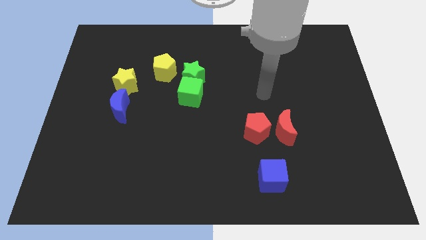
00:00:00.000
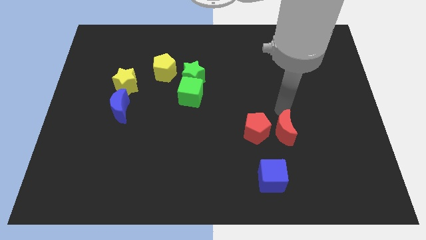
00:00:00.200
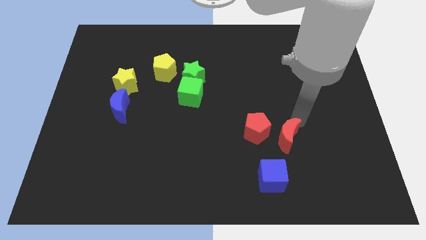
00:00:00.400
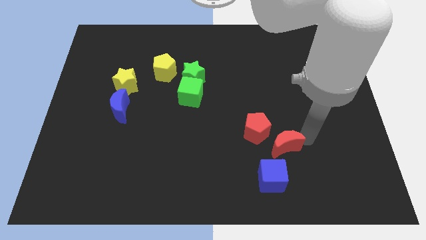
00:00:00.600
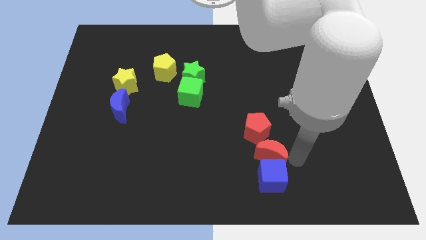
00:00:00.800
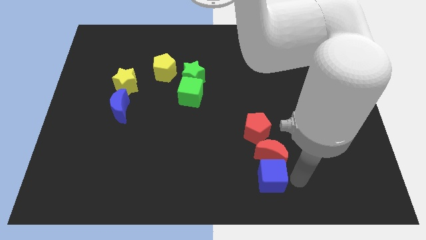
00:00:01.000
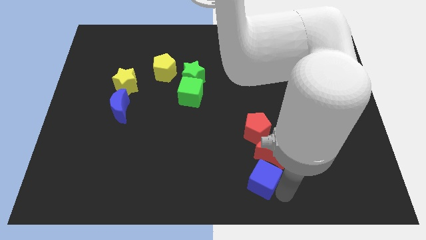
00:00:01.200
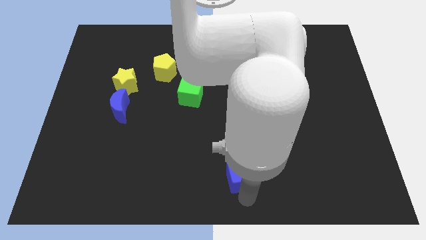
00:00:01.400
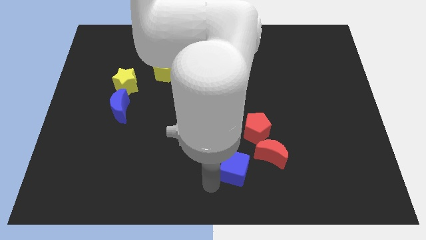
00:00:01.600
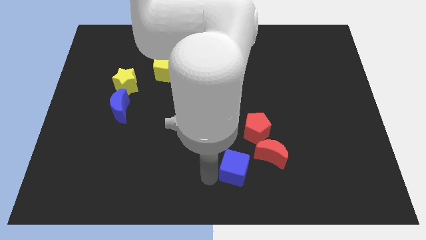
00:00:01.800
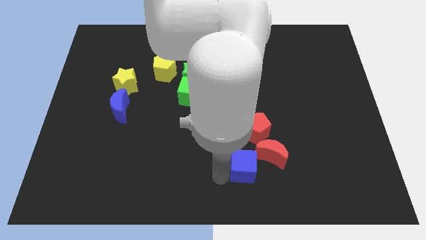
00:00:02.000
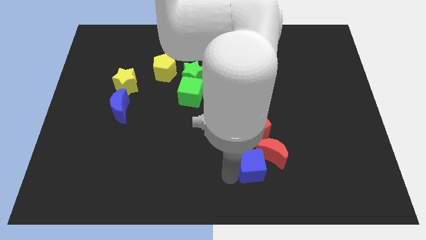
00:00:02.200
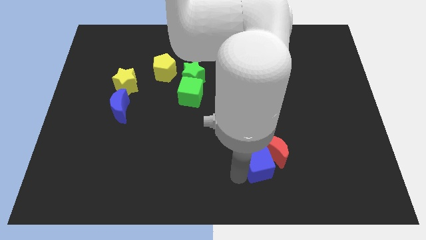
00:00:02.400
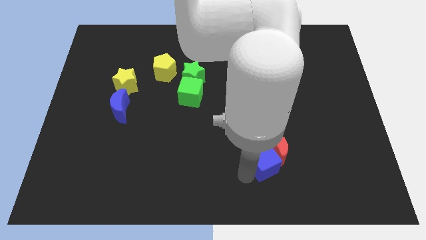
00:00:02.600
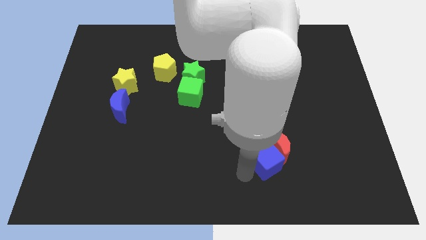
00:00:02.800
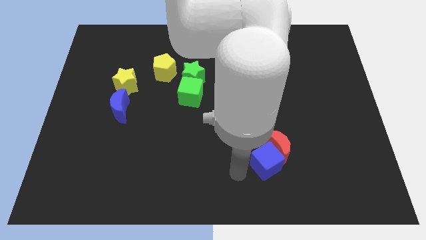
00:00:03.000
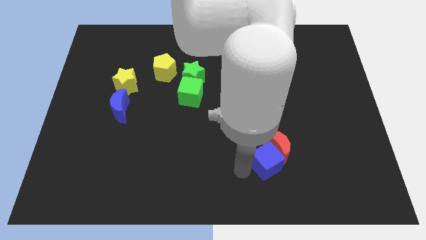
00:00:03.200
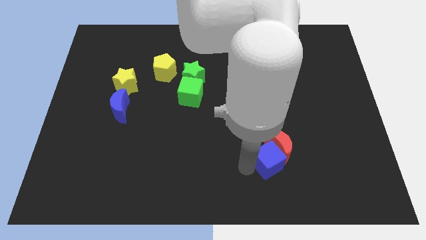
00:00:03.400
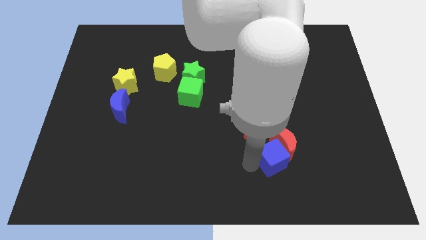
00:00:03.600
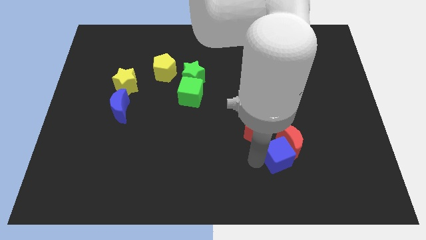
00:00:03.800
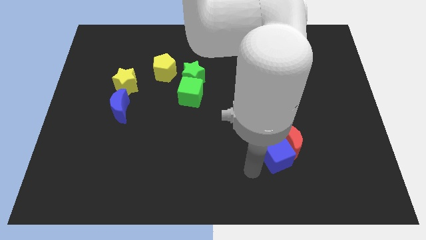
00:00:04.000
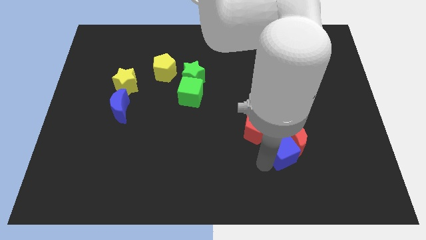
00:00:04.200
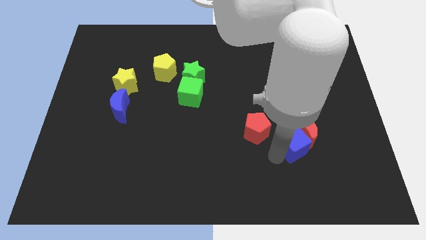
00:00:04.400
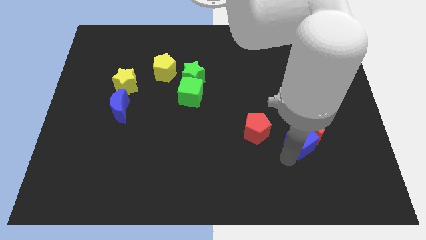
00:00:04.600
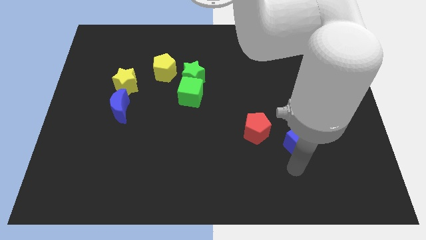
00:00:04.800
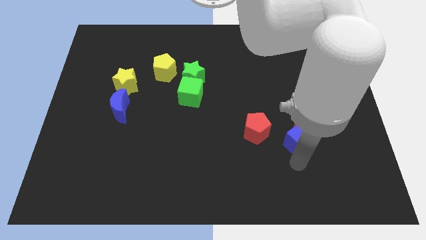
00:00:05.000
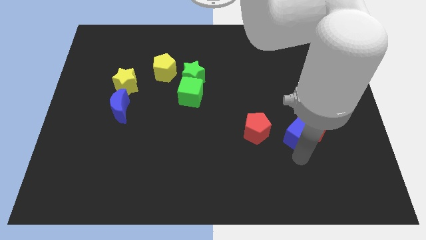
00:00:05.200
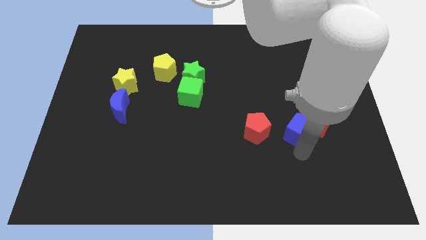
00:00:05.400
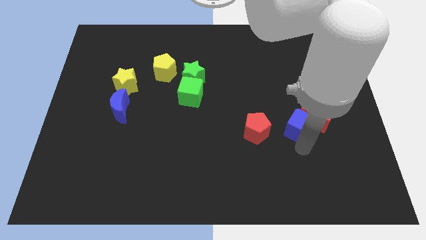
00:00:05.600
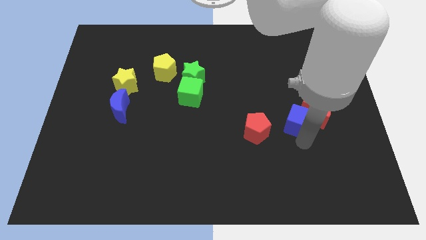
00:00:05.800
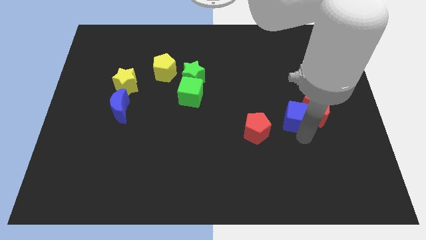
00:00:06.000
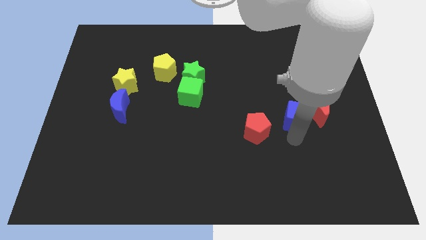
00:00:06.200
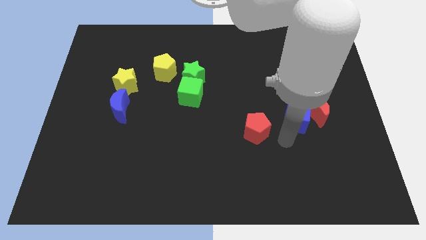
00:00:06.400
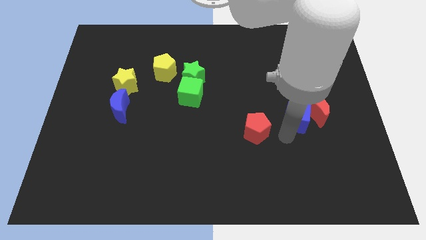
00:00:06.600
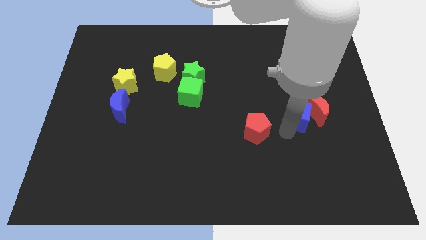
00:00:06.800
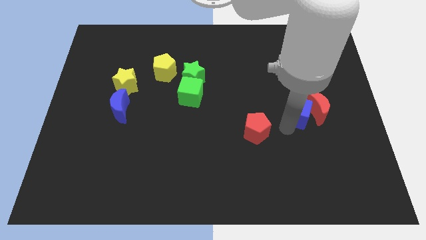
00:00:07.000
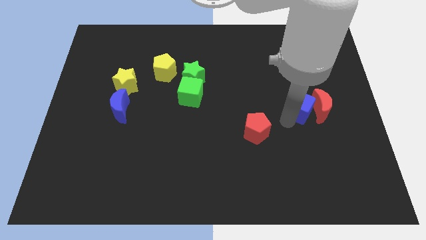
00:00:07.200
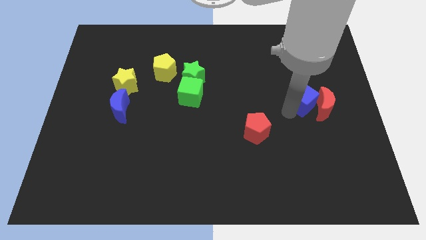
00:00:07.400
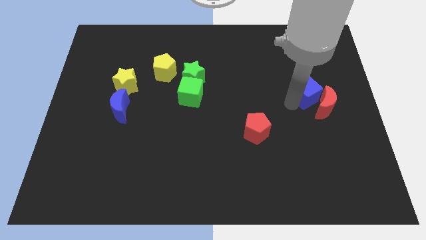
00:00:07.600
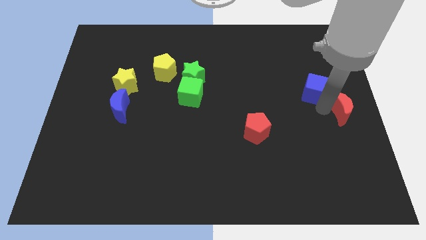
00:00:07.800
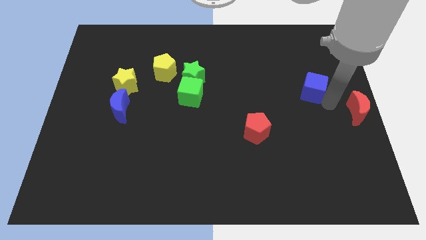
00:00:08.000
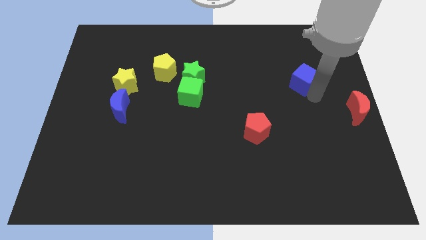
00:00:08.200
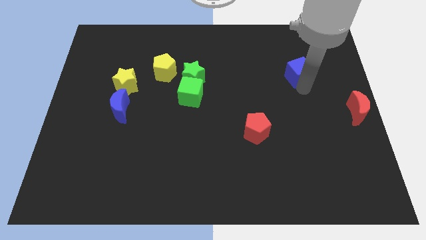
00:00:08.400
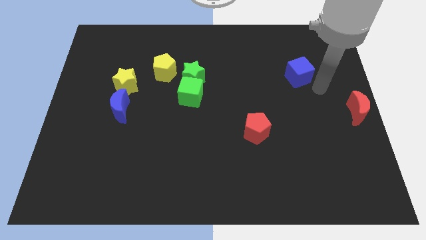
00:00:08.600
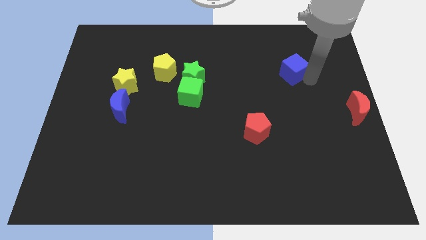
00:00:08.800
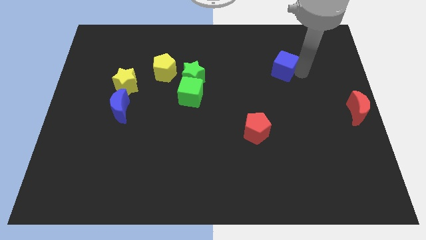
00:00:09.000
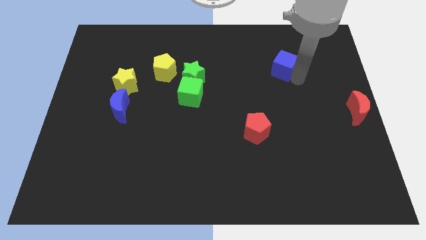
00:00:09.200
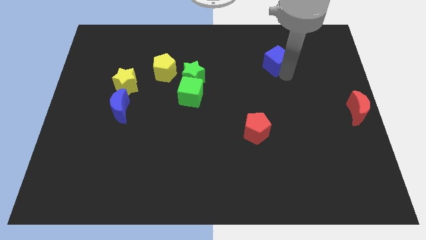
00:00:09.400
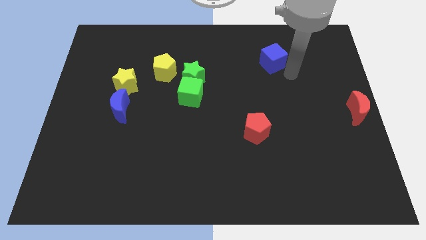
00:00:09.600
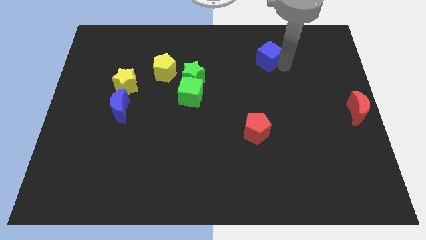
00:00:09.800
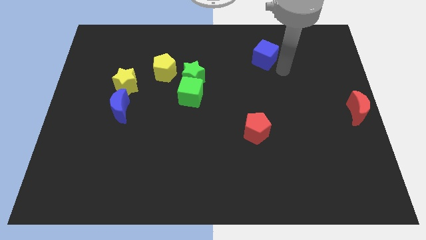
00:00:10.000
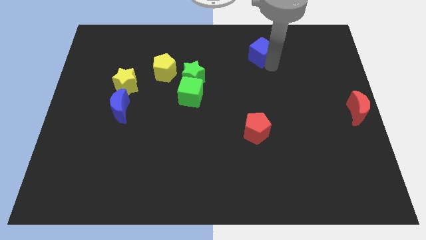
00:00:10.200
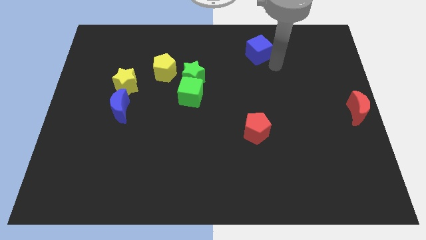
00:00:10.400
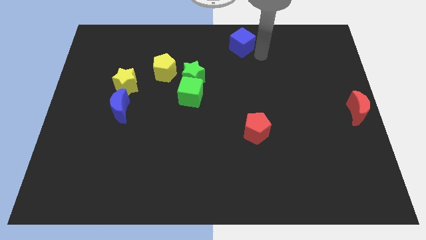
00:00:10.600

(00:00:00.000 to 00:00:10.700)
put the blue cube to the towards your base

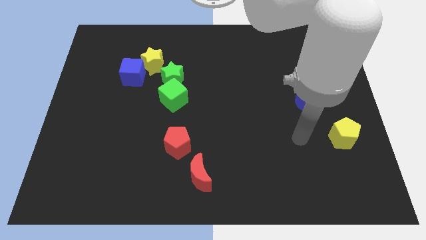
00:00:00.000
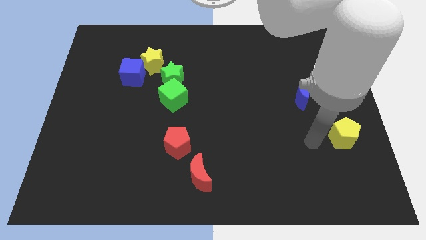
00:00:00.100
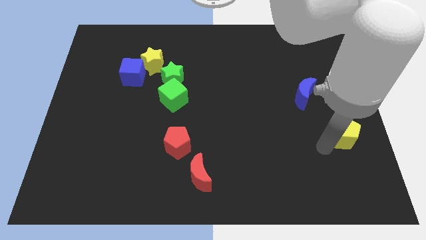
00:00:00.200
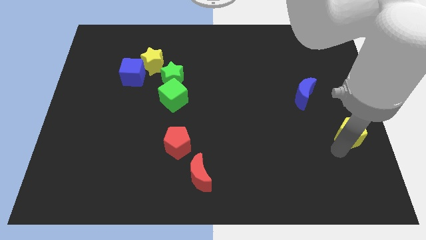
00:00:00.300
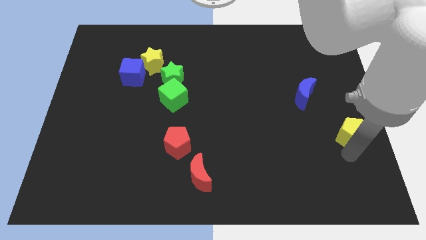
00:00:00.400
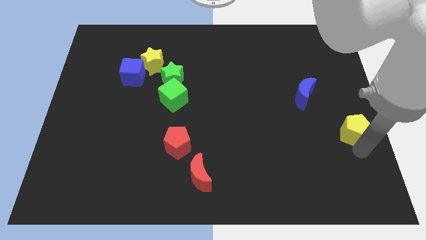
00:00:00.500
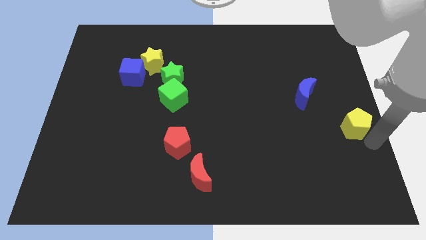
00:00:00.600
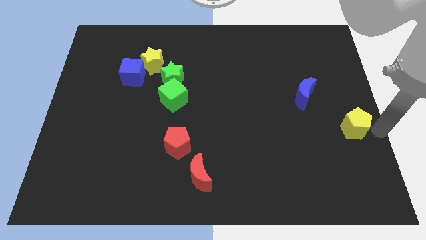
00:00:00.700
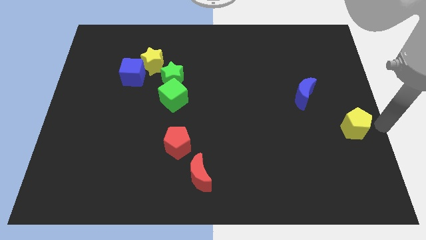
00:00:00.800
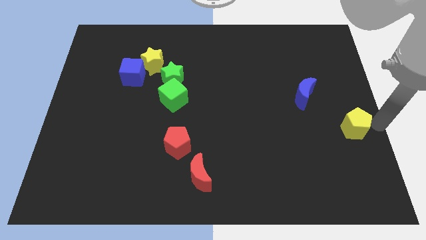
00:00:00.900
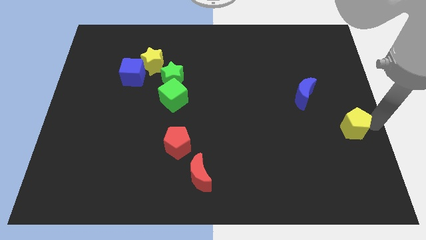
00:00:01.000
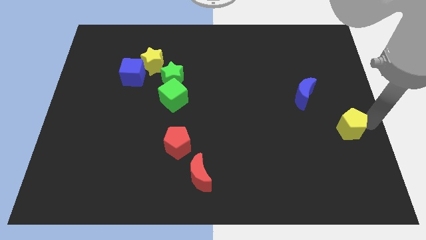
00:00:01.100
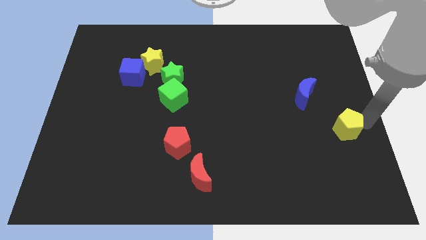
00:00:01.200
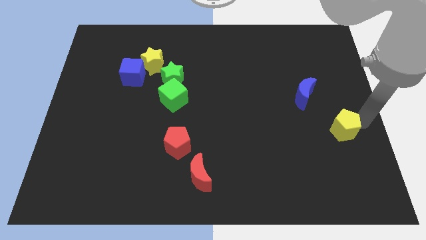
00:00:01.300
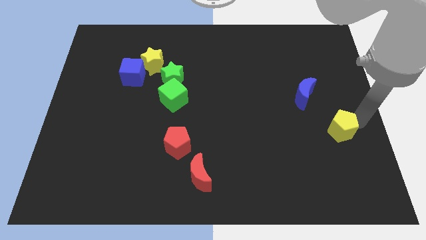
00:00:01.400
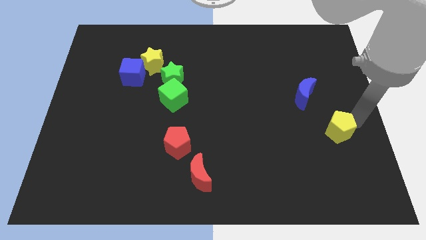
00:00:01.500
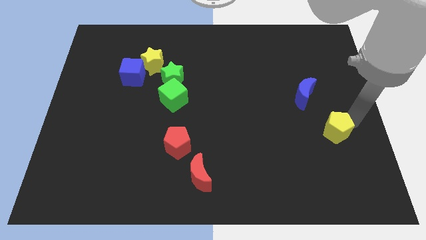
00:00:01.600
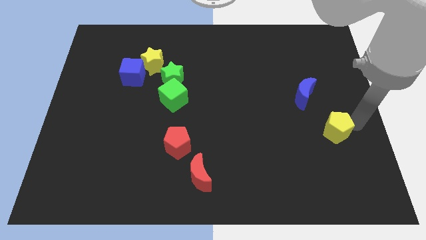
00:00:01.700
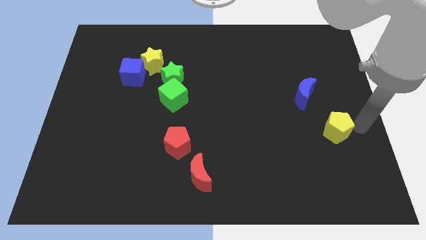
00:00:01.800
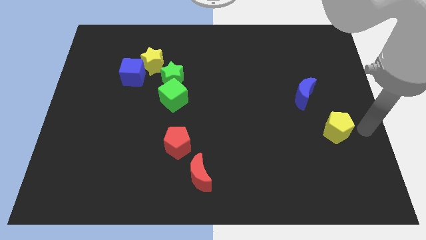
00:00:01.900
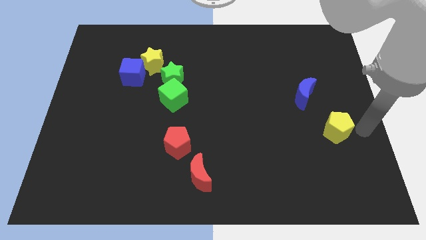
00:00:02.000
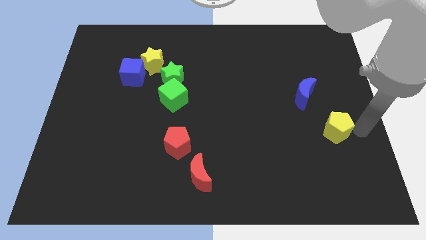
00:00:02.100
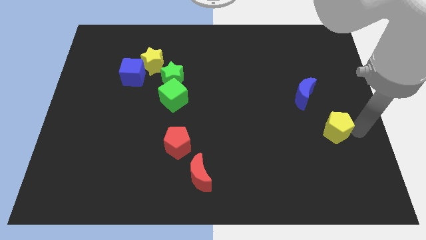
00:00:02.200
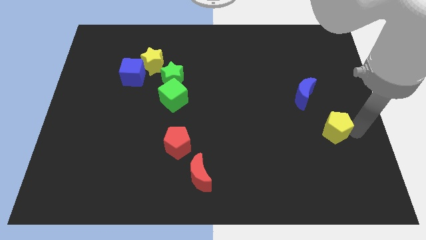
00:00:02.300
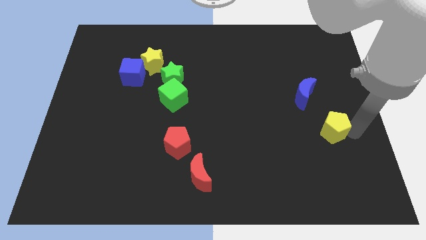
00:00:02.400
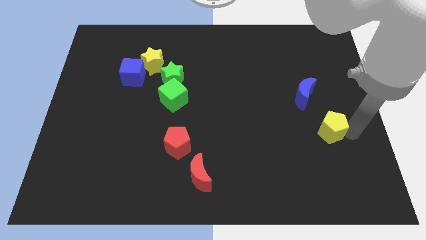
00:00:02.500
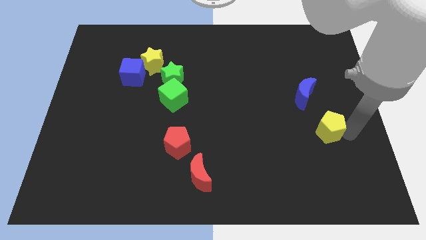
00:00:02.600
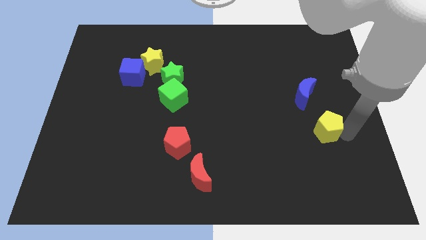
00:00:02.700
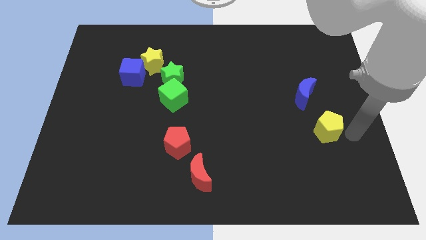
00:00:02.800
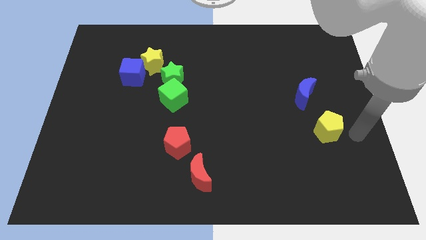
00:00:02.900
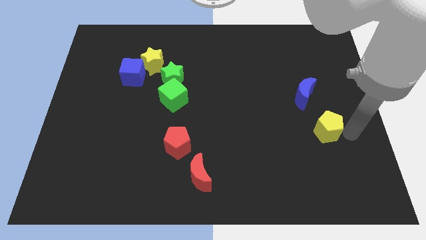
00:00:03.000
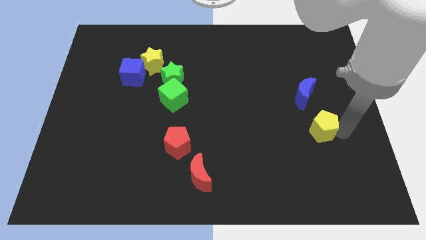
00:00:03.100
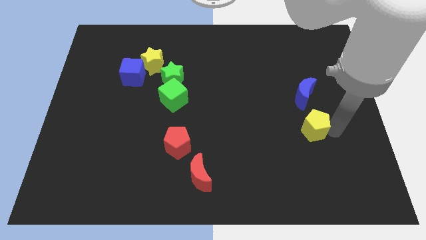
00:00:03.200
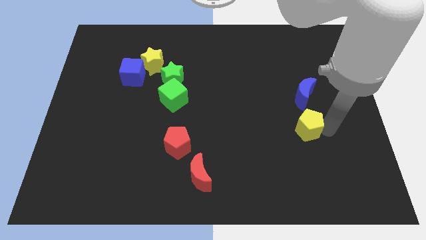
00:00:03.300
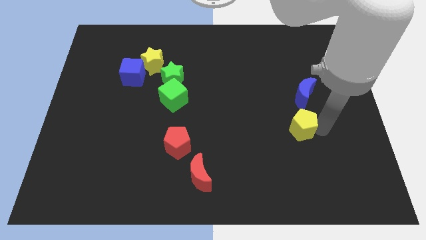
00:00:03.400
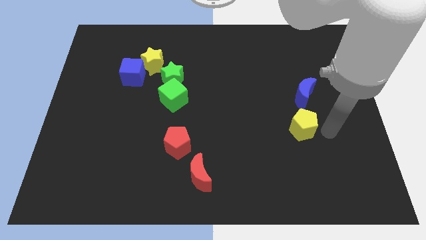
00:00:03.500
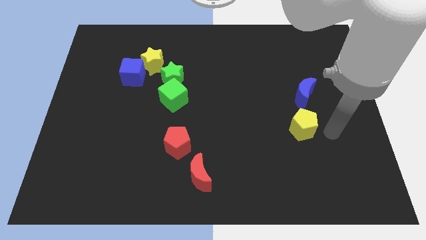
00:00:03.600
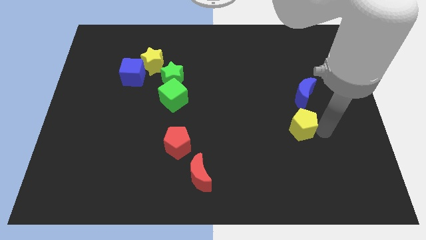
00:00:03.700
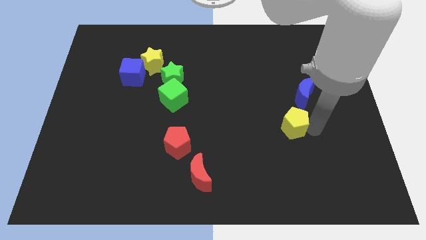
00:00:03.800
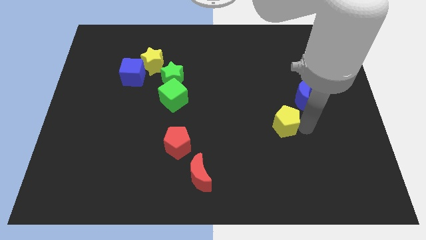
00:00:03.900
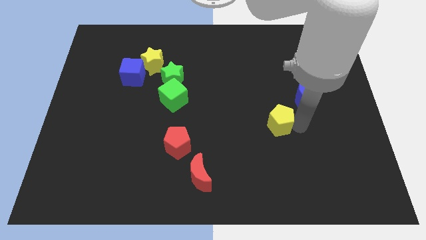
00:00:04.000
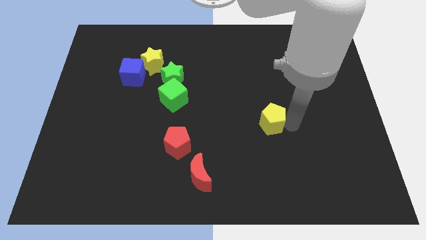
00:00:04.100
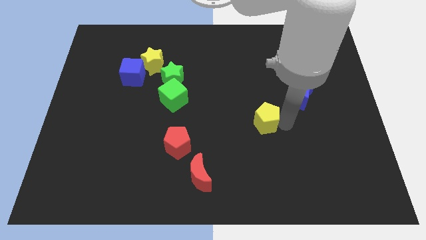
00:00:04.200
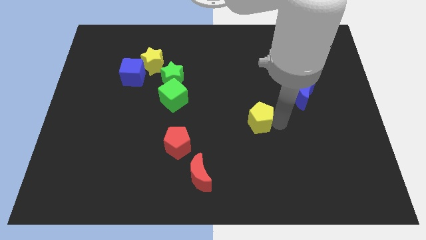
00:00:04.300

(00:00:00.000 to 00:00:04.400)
put the yellow pentagon to the center
